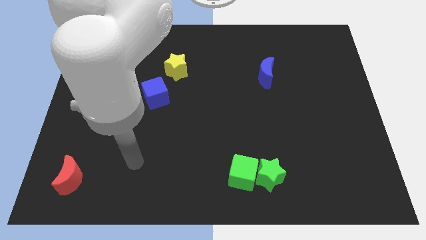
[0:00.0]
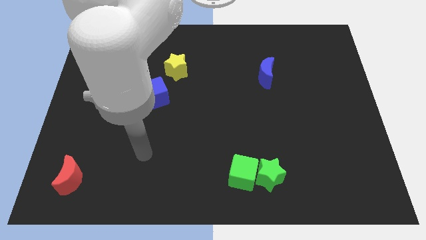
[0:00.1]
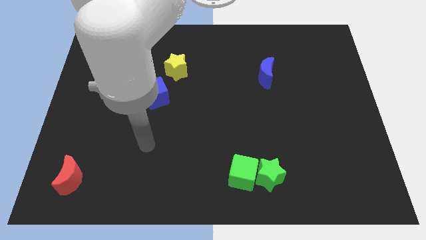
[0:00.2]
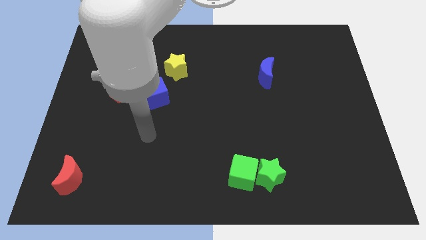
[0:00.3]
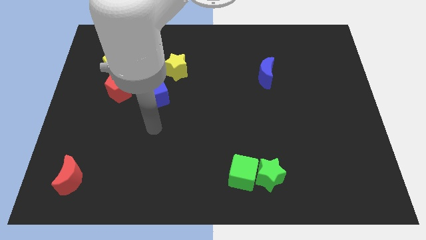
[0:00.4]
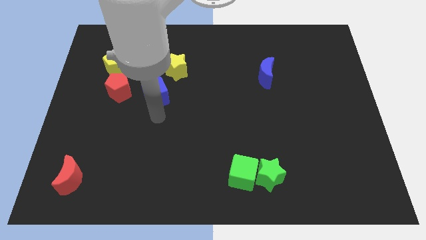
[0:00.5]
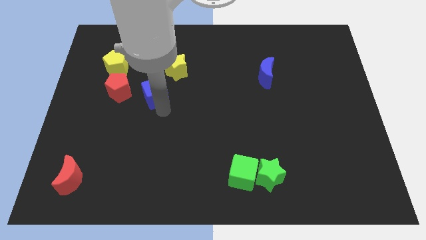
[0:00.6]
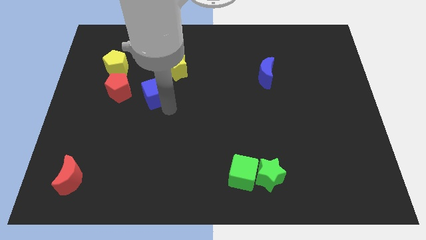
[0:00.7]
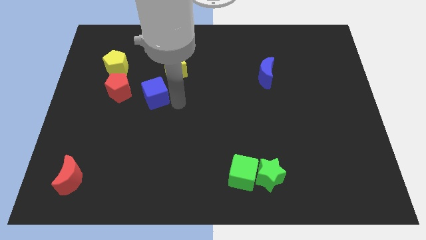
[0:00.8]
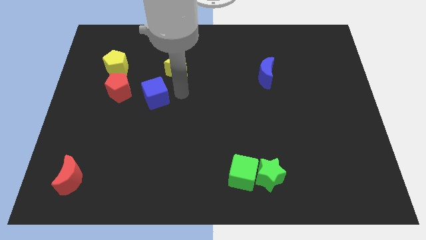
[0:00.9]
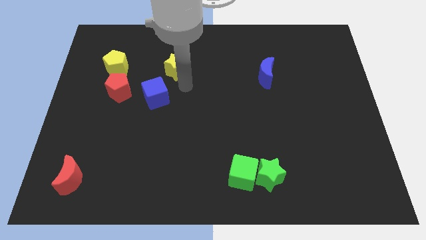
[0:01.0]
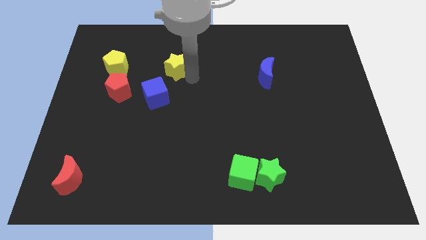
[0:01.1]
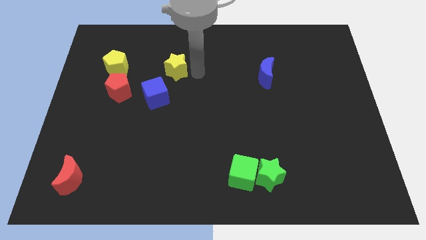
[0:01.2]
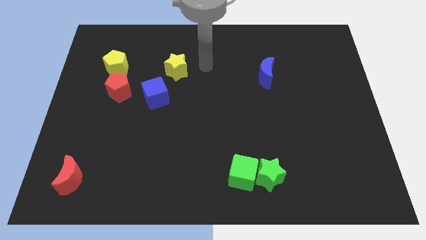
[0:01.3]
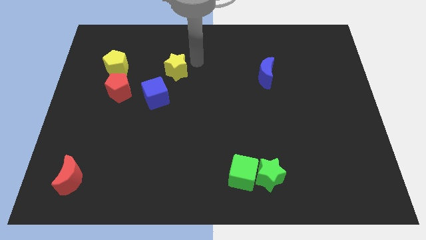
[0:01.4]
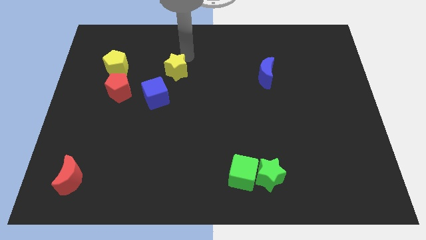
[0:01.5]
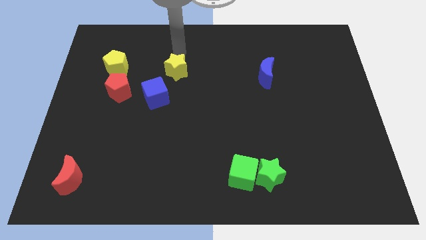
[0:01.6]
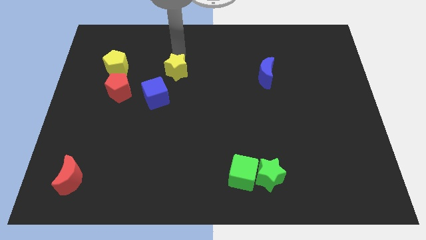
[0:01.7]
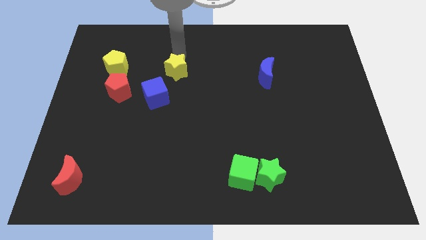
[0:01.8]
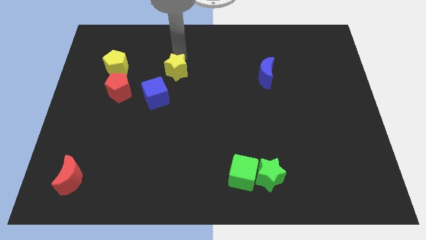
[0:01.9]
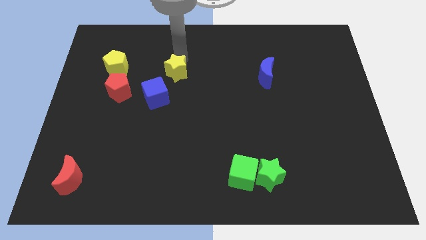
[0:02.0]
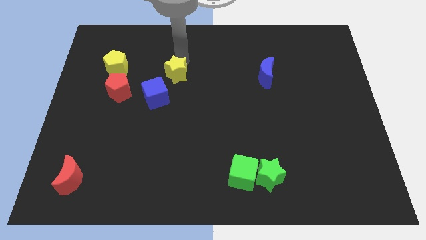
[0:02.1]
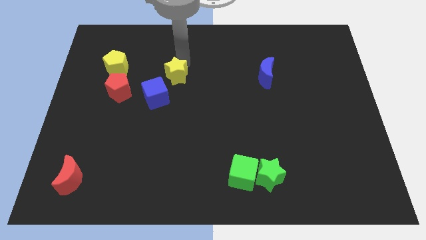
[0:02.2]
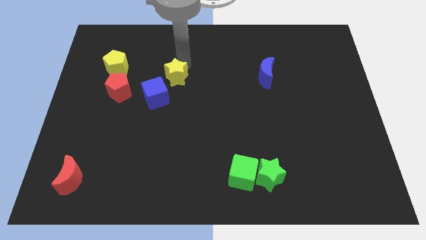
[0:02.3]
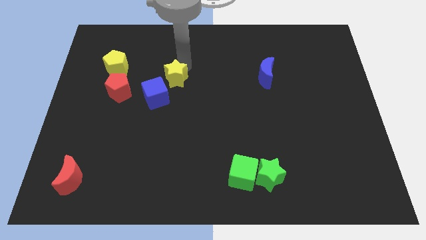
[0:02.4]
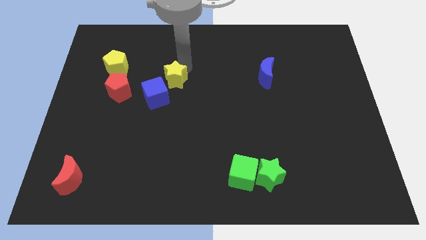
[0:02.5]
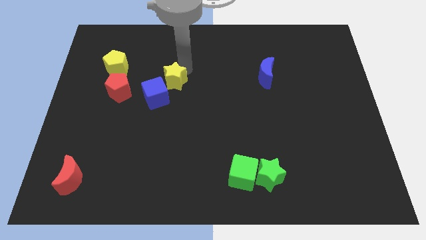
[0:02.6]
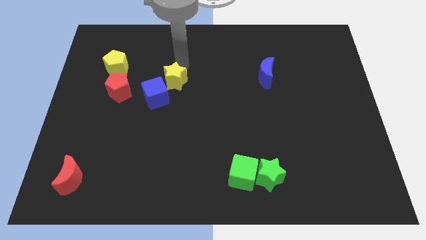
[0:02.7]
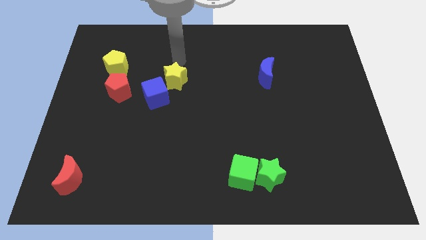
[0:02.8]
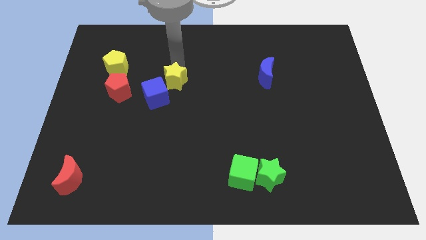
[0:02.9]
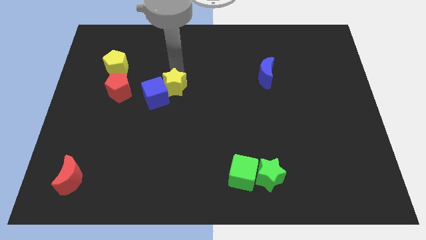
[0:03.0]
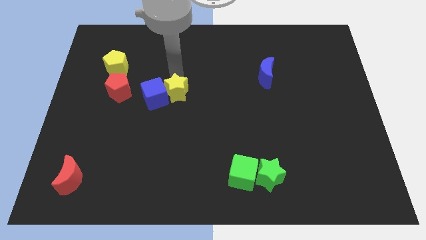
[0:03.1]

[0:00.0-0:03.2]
slightly push the yellow star down

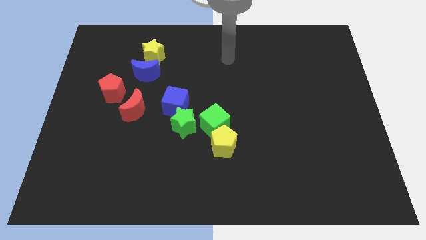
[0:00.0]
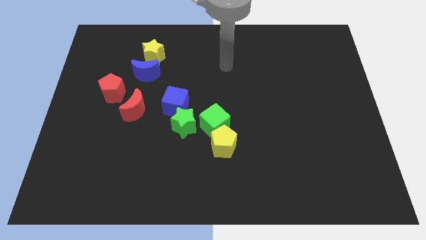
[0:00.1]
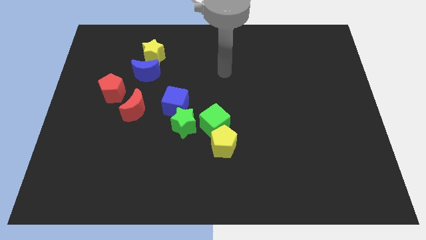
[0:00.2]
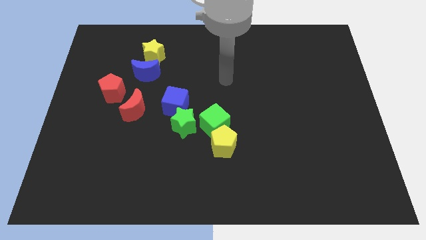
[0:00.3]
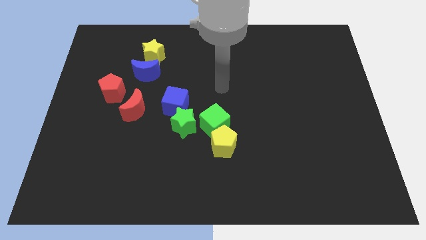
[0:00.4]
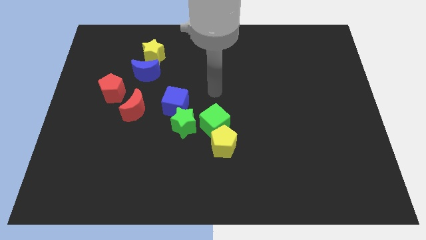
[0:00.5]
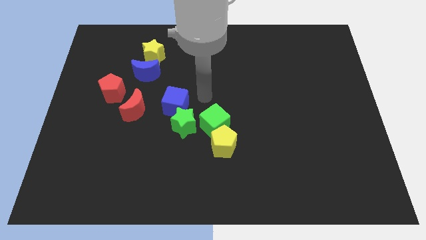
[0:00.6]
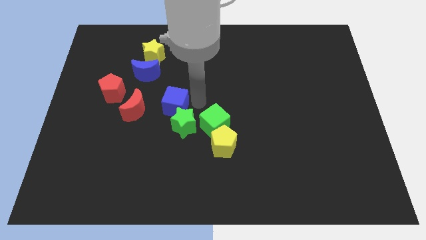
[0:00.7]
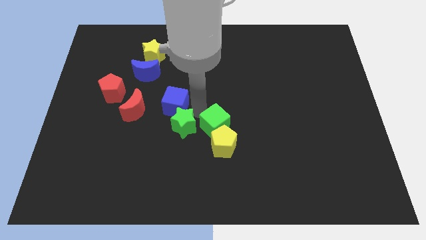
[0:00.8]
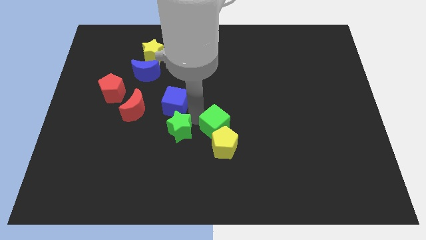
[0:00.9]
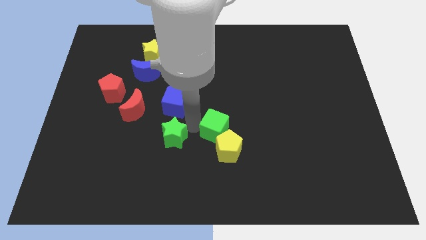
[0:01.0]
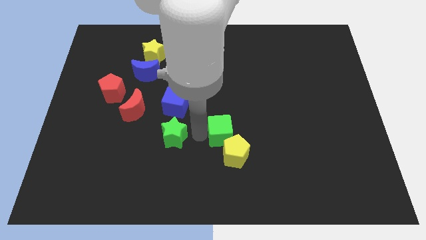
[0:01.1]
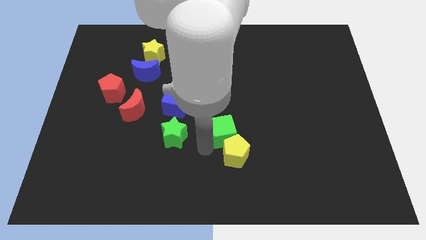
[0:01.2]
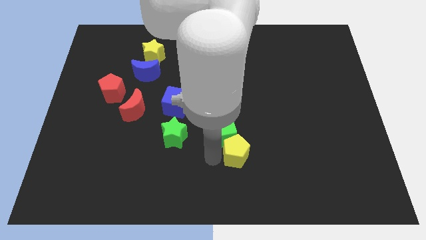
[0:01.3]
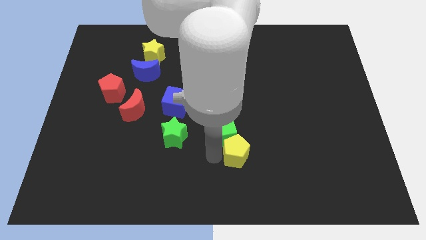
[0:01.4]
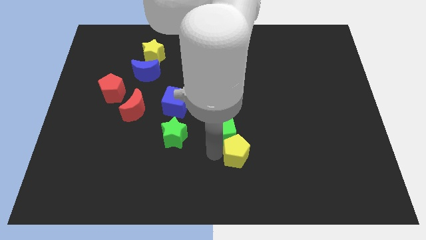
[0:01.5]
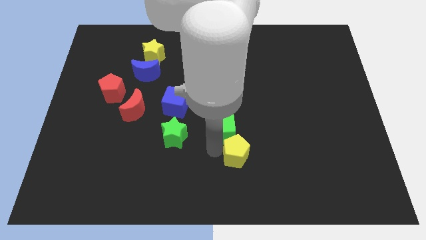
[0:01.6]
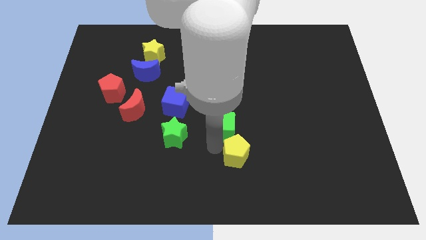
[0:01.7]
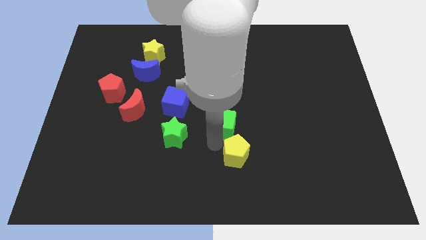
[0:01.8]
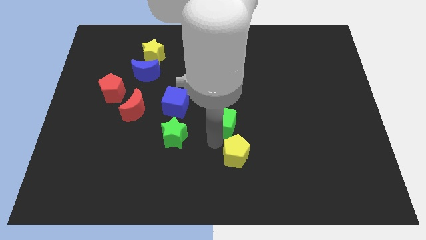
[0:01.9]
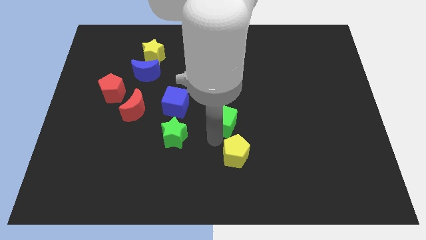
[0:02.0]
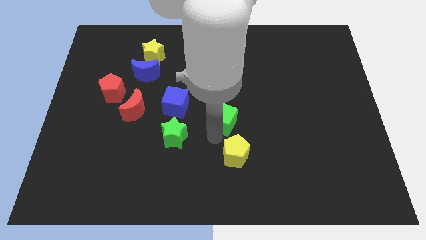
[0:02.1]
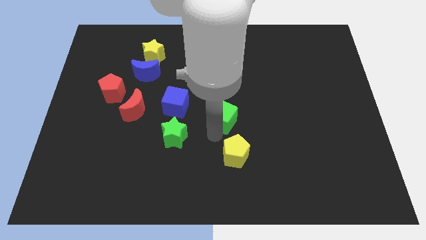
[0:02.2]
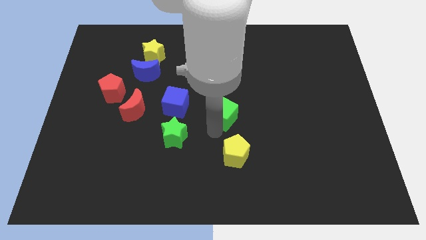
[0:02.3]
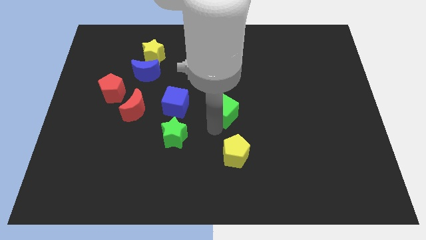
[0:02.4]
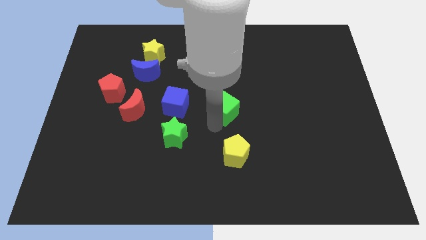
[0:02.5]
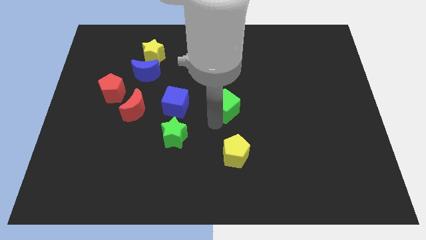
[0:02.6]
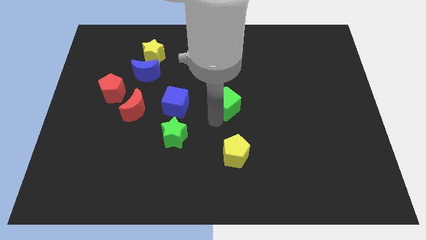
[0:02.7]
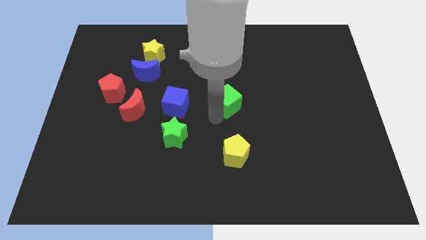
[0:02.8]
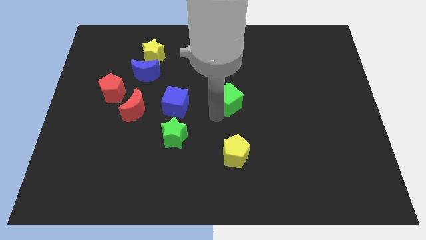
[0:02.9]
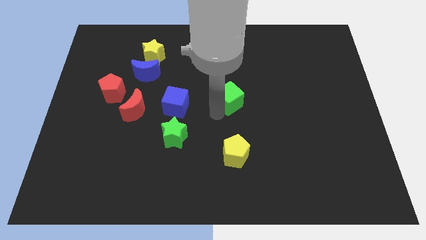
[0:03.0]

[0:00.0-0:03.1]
push the green cube up and to the right diagonally somewhat

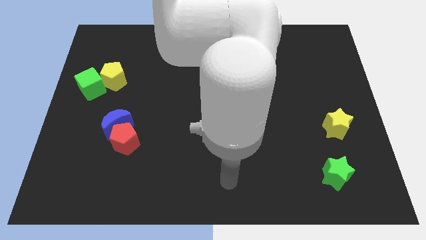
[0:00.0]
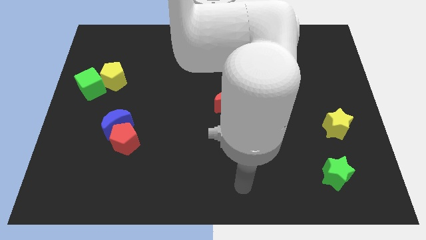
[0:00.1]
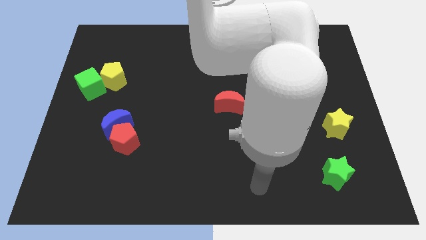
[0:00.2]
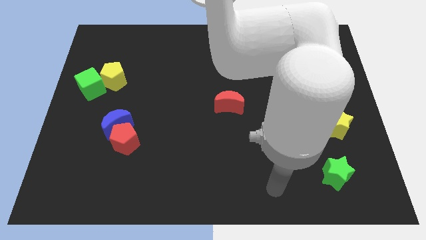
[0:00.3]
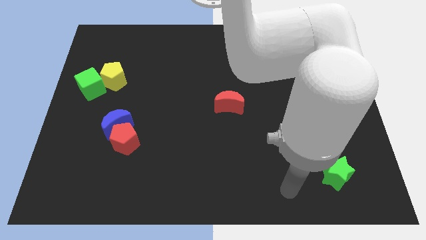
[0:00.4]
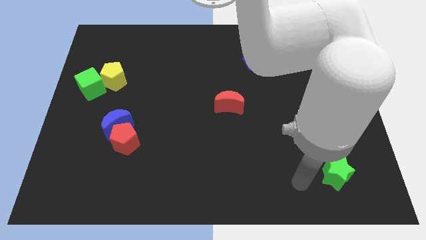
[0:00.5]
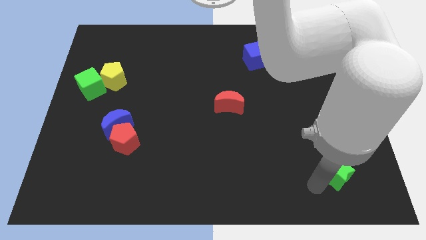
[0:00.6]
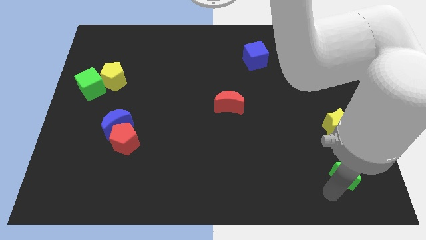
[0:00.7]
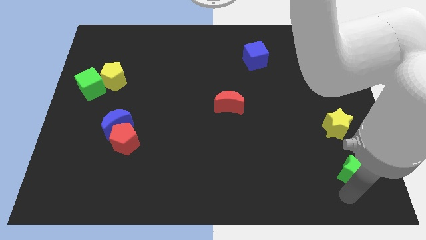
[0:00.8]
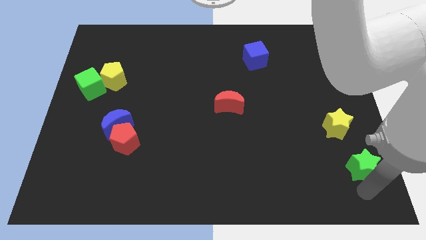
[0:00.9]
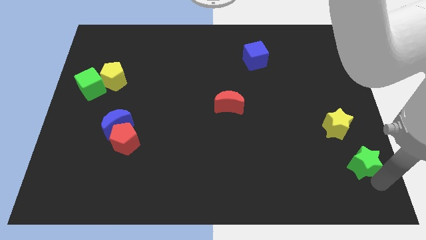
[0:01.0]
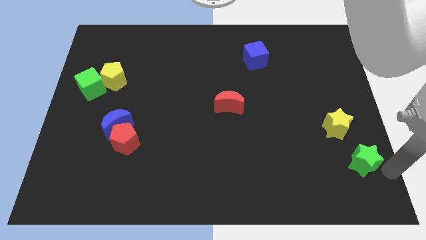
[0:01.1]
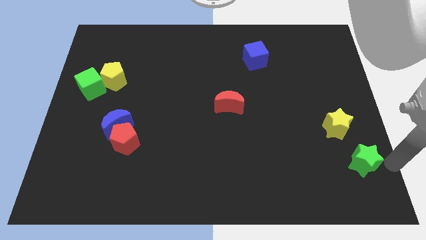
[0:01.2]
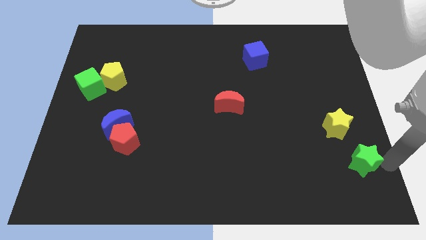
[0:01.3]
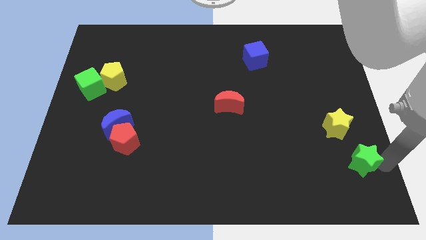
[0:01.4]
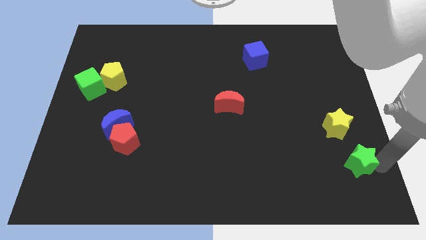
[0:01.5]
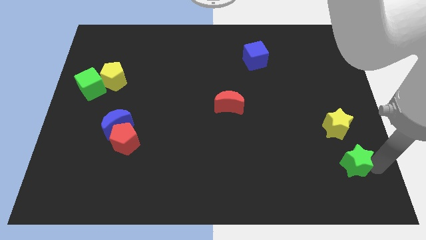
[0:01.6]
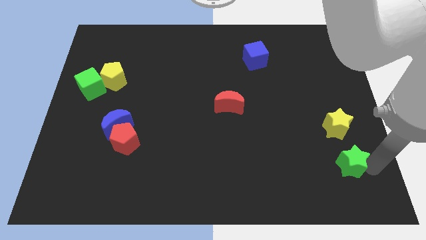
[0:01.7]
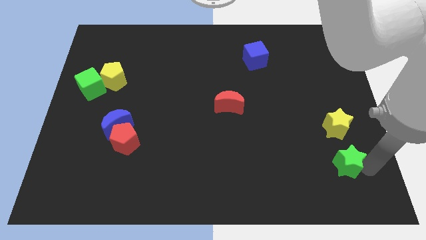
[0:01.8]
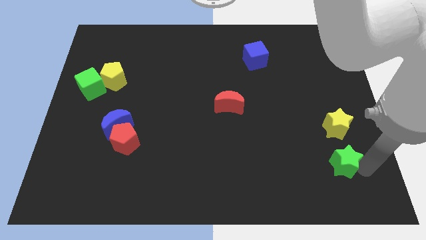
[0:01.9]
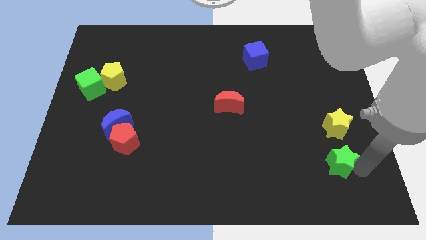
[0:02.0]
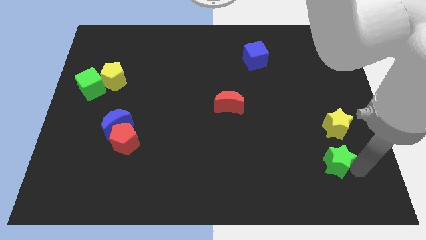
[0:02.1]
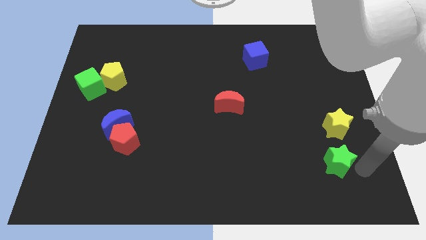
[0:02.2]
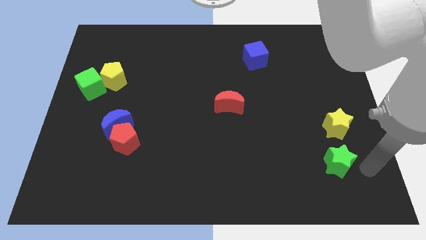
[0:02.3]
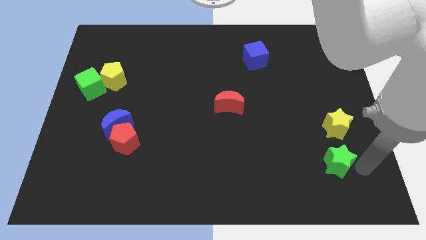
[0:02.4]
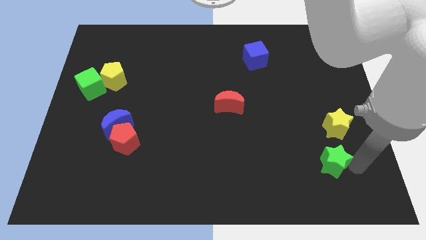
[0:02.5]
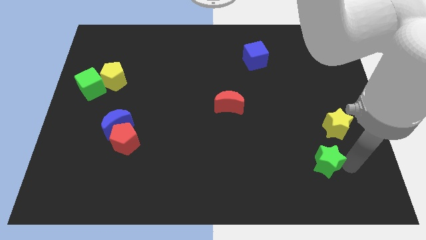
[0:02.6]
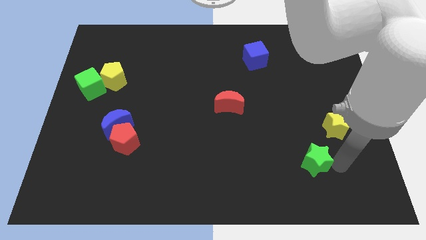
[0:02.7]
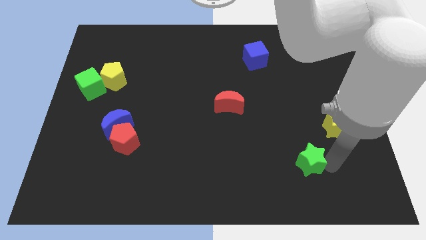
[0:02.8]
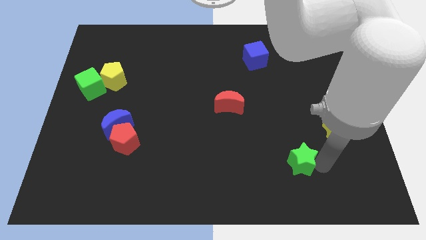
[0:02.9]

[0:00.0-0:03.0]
push the green star a little up and to the left diagonally
